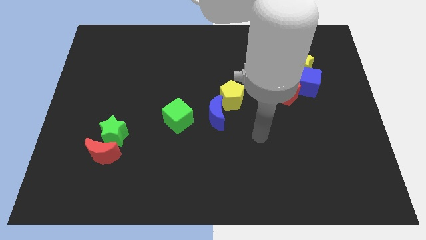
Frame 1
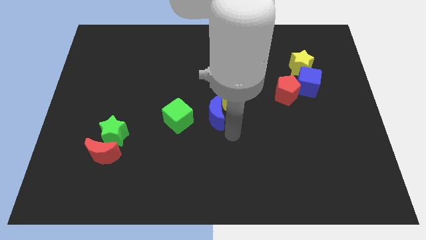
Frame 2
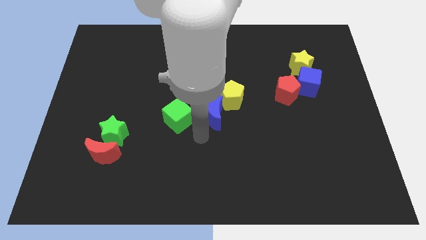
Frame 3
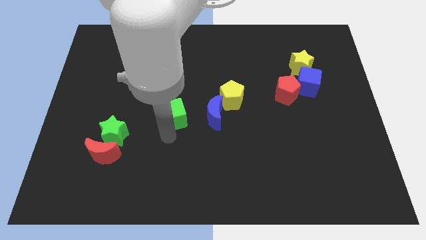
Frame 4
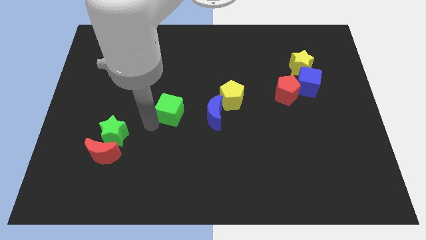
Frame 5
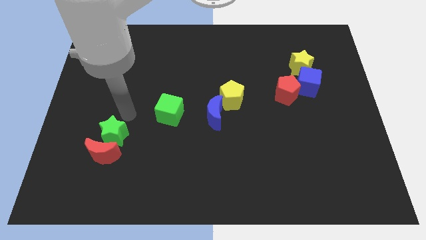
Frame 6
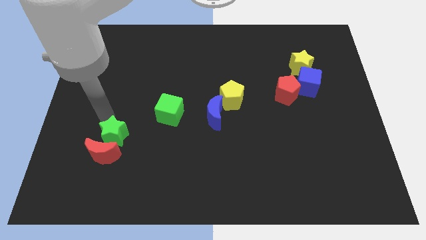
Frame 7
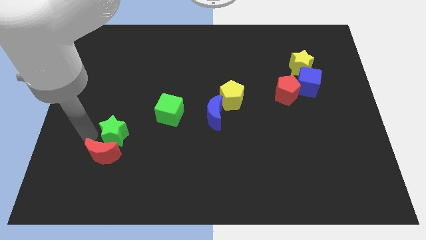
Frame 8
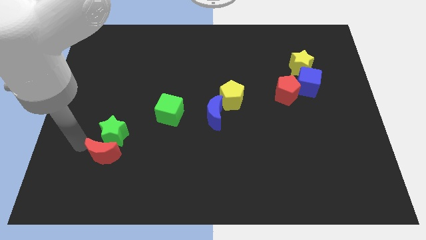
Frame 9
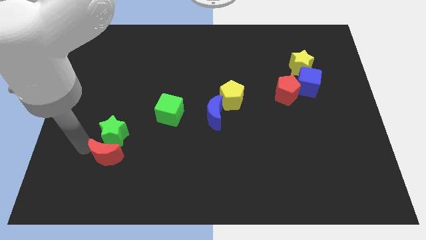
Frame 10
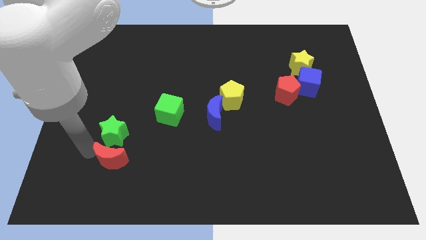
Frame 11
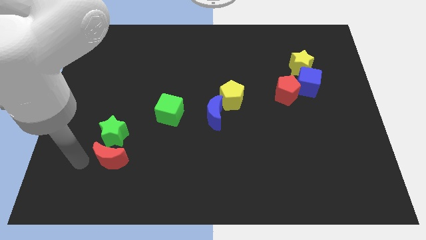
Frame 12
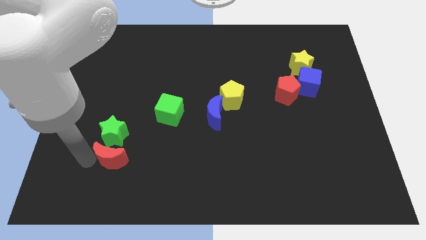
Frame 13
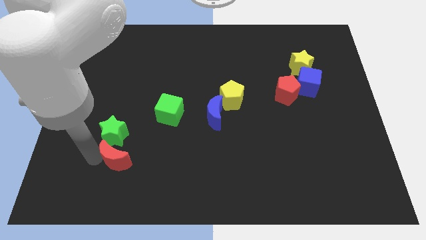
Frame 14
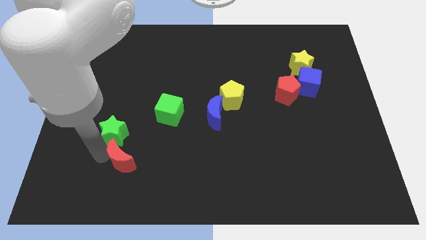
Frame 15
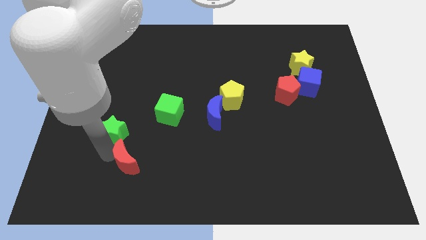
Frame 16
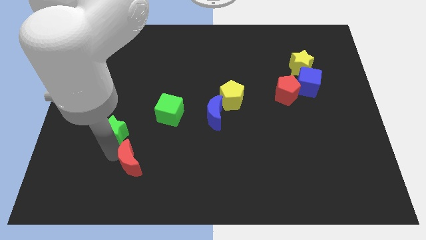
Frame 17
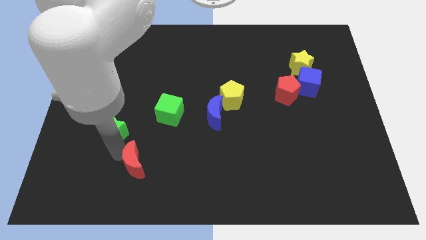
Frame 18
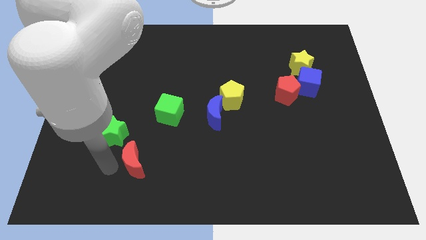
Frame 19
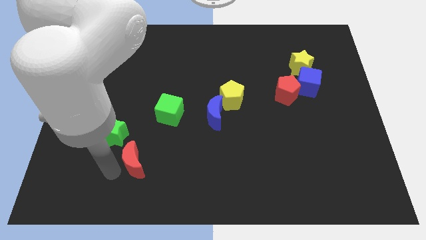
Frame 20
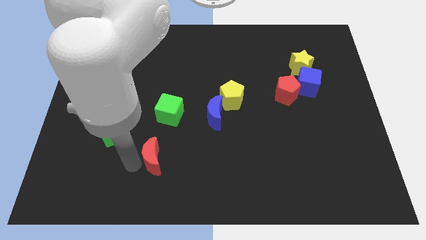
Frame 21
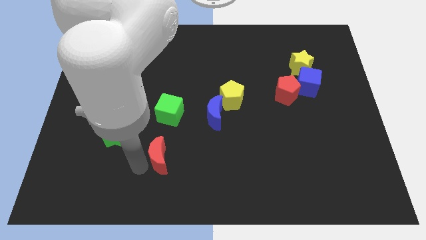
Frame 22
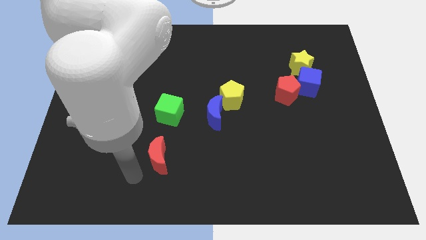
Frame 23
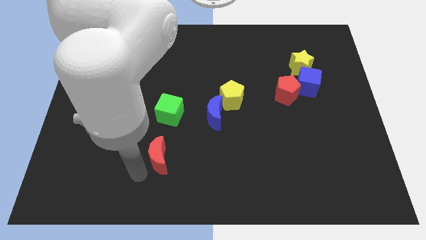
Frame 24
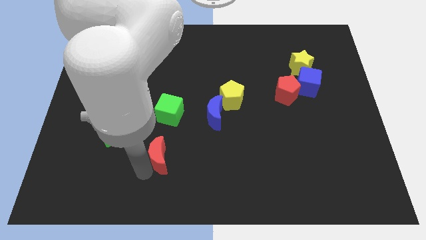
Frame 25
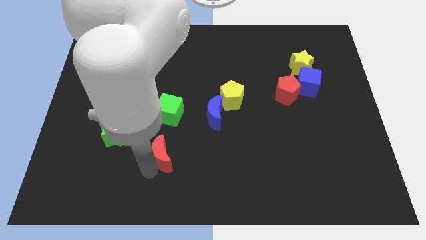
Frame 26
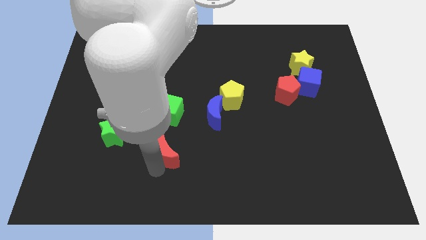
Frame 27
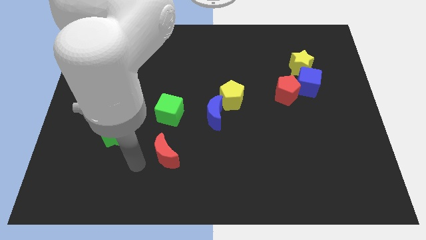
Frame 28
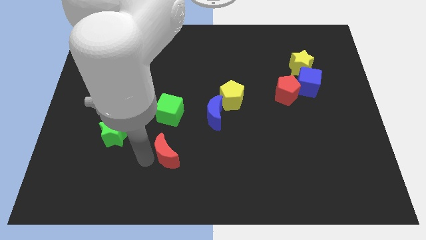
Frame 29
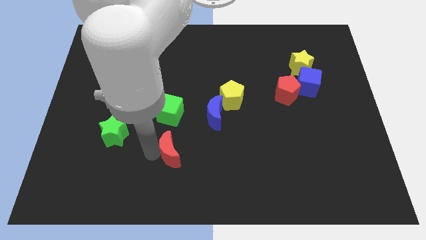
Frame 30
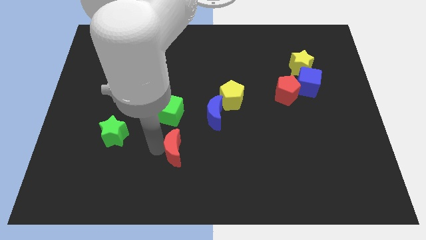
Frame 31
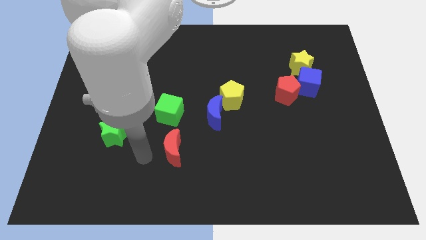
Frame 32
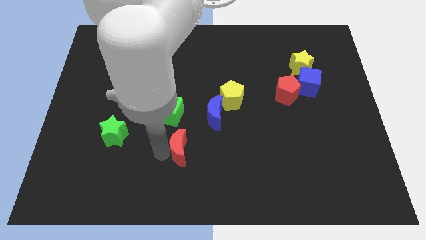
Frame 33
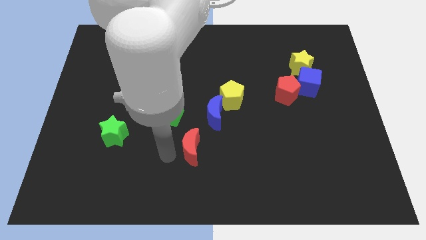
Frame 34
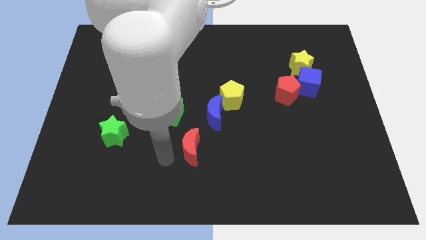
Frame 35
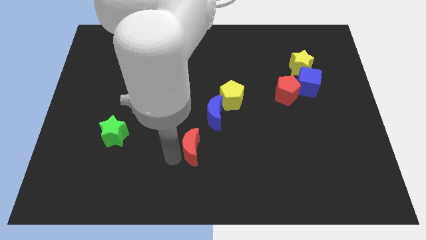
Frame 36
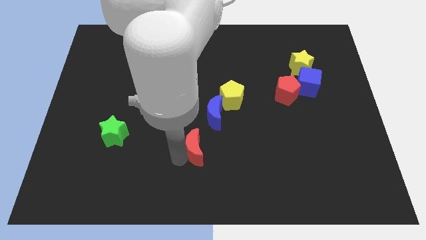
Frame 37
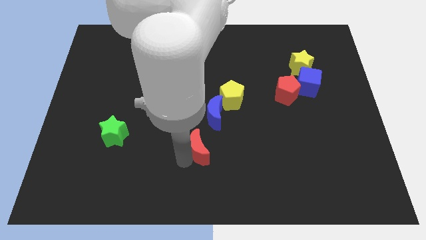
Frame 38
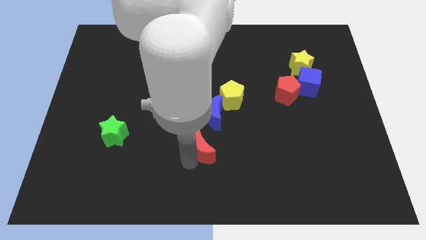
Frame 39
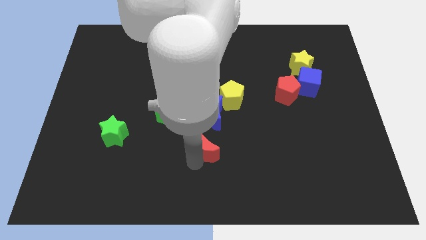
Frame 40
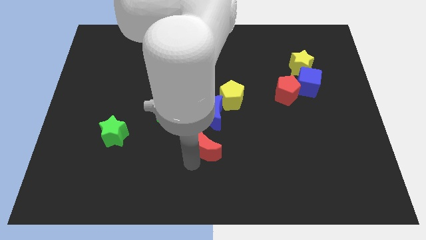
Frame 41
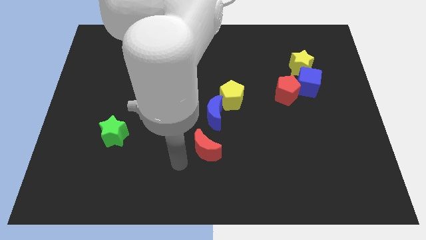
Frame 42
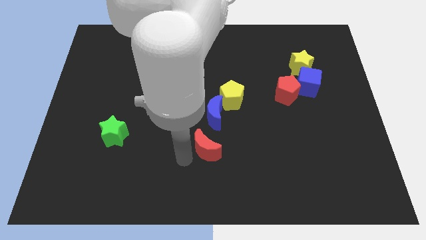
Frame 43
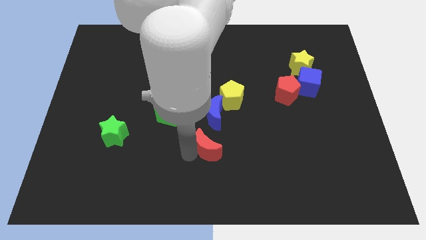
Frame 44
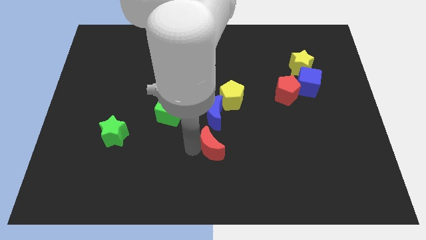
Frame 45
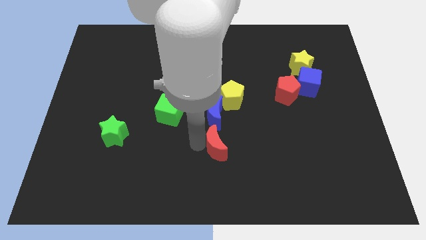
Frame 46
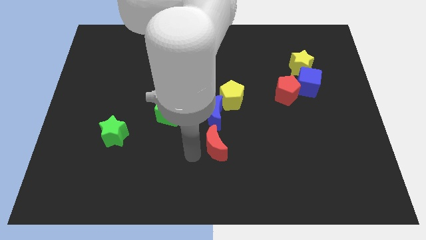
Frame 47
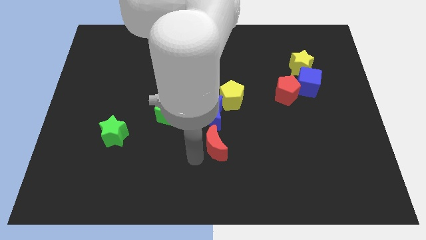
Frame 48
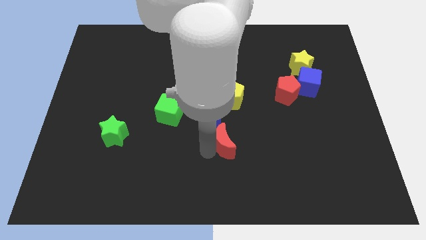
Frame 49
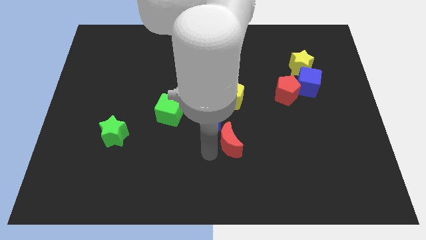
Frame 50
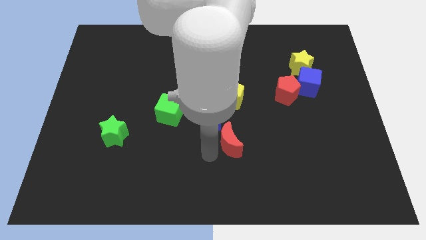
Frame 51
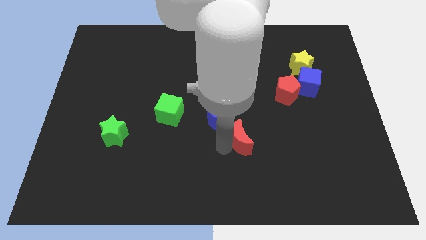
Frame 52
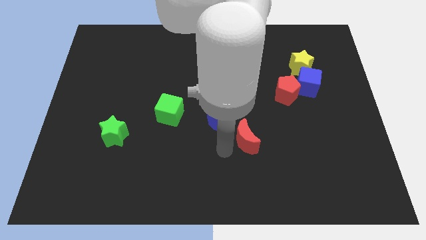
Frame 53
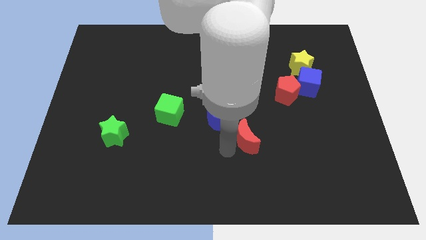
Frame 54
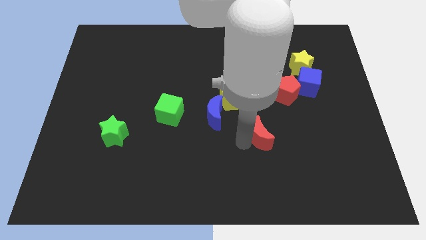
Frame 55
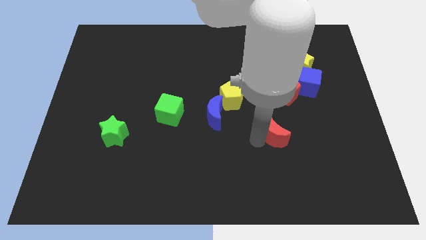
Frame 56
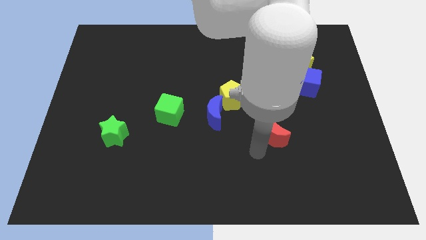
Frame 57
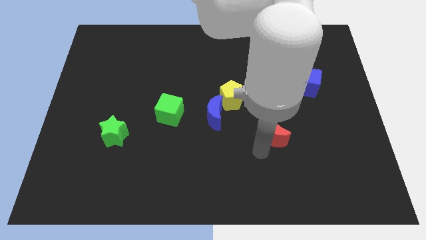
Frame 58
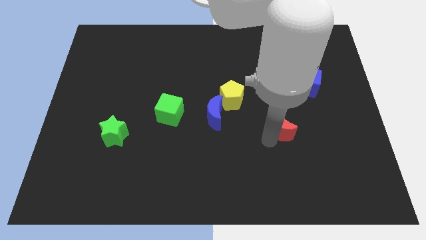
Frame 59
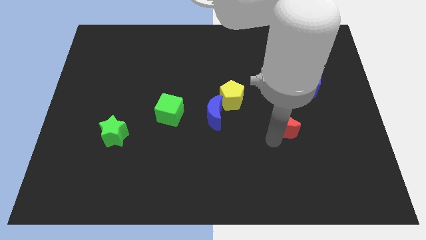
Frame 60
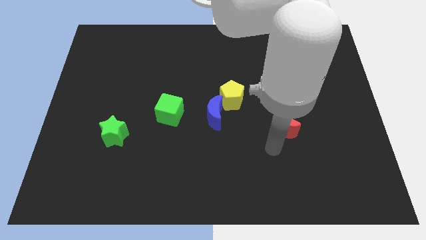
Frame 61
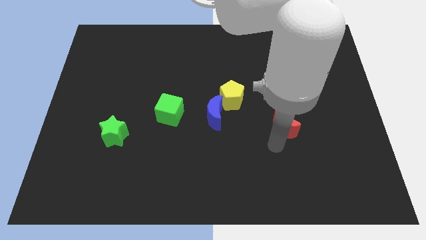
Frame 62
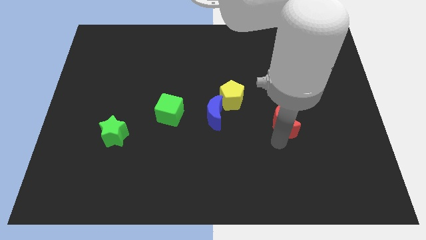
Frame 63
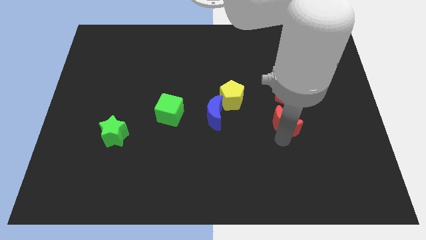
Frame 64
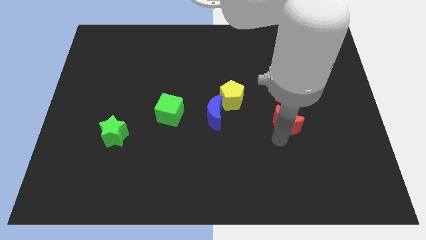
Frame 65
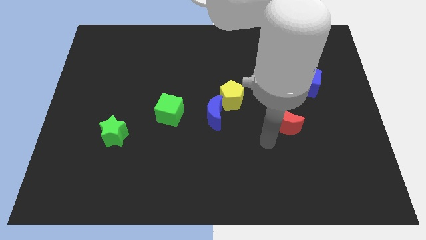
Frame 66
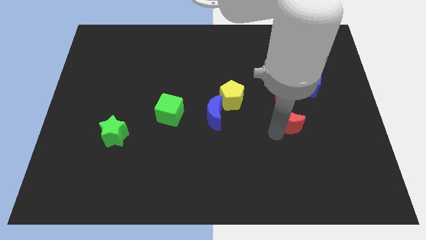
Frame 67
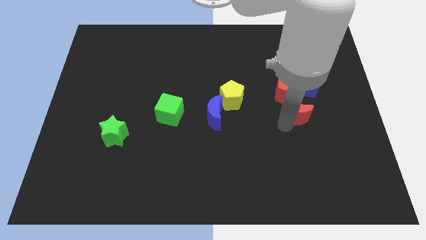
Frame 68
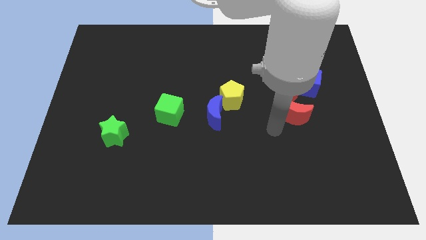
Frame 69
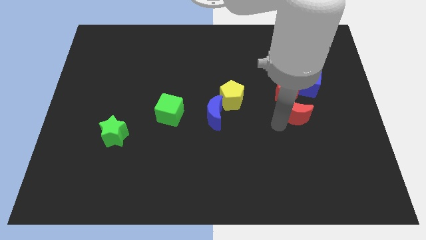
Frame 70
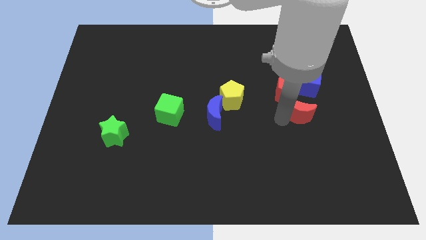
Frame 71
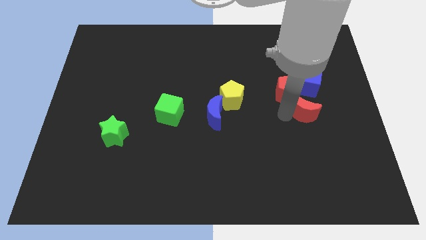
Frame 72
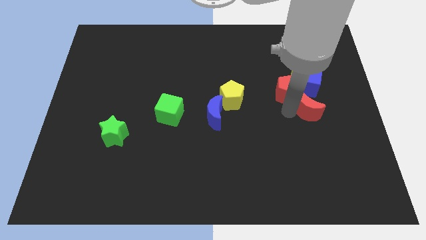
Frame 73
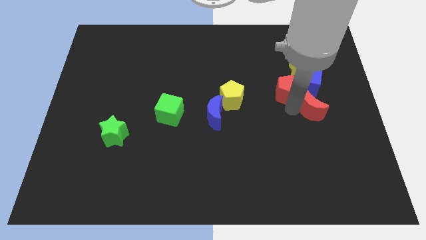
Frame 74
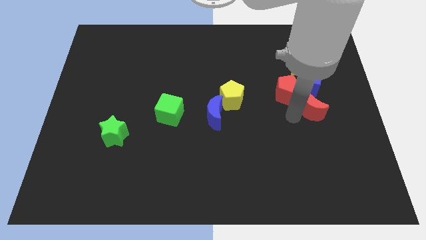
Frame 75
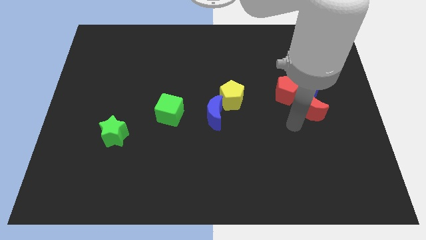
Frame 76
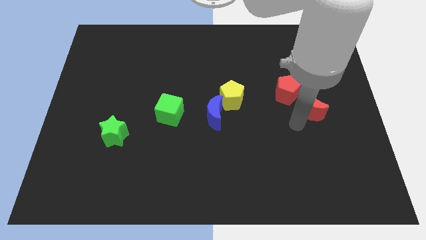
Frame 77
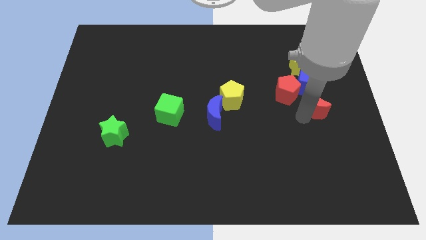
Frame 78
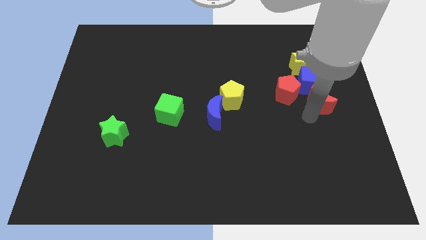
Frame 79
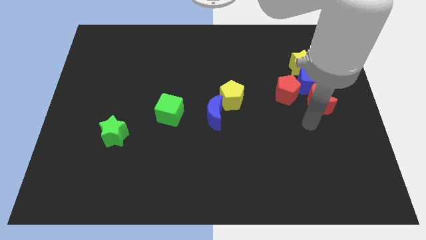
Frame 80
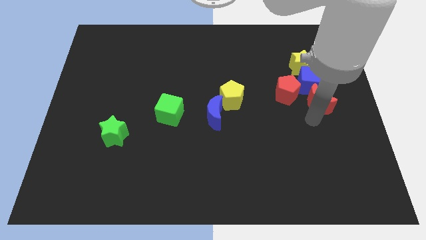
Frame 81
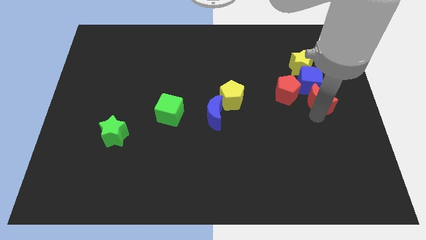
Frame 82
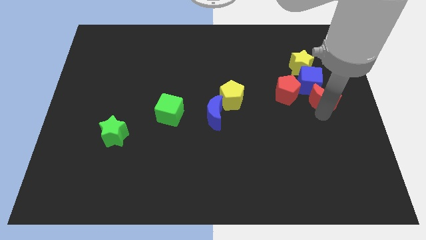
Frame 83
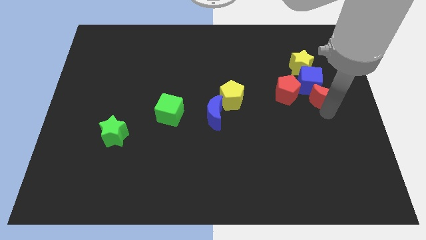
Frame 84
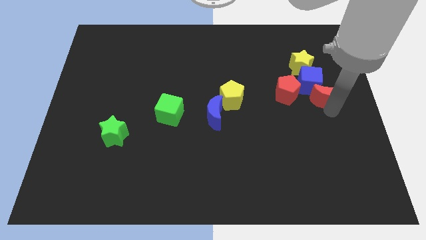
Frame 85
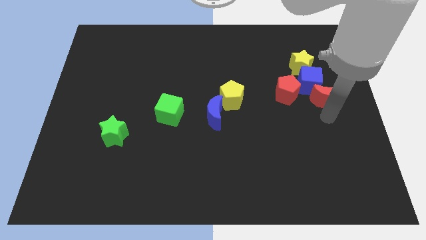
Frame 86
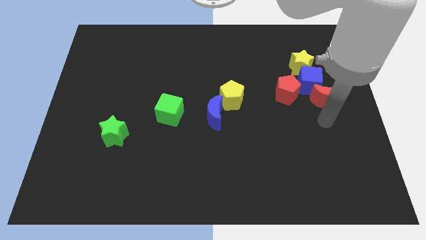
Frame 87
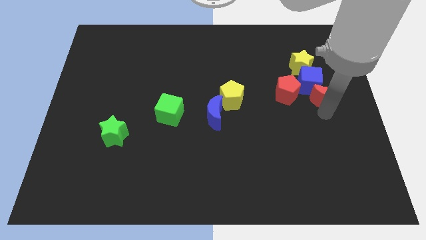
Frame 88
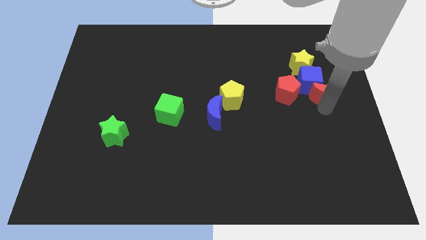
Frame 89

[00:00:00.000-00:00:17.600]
put the red moon to the bottom right side of the yellow star
